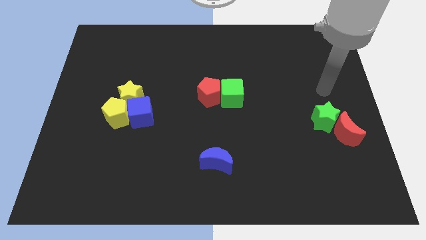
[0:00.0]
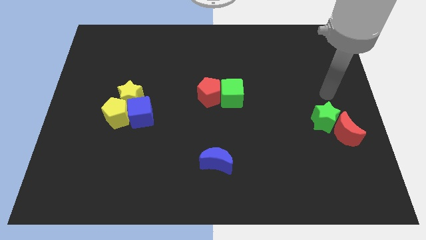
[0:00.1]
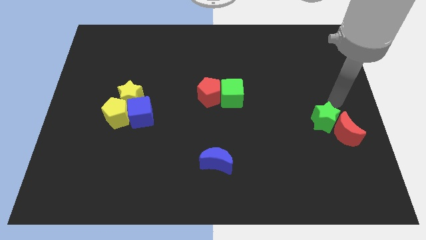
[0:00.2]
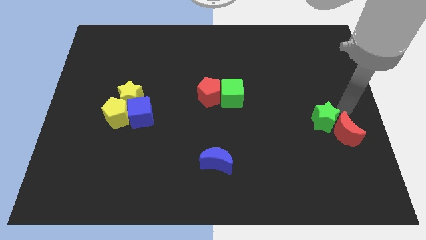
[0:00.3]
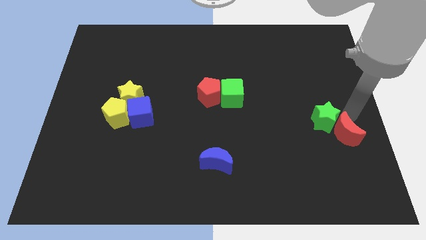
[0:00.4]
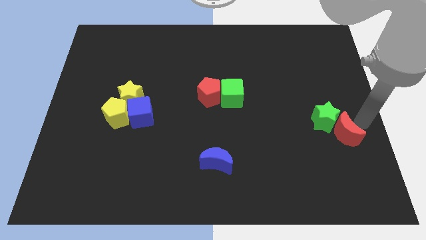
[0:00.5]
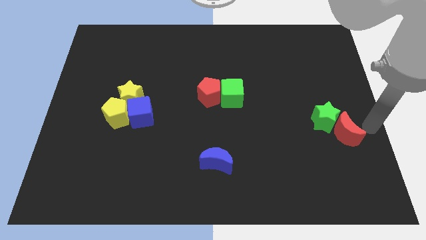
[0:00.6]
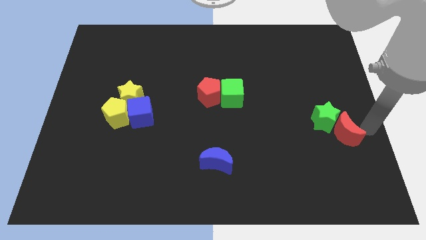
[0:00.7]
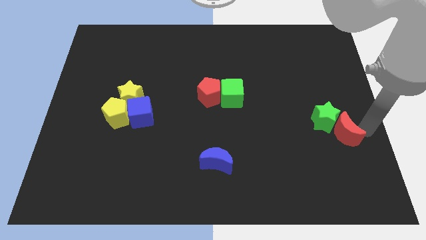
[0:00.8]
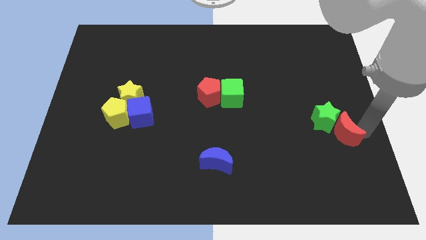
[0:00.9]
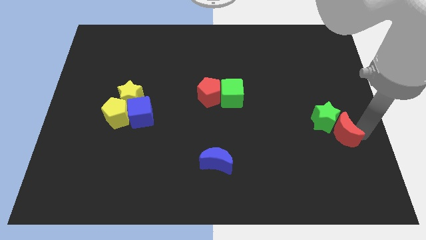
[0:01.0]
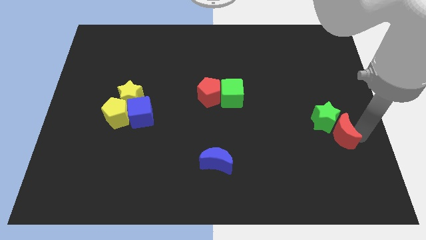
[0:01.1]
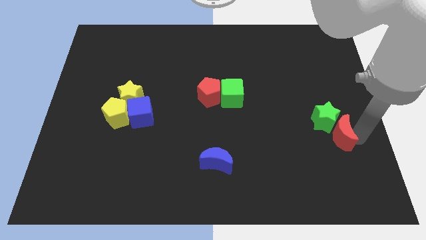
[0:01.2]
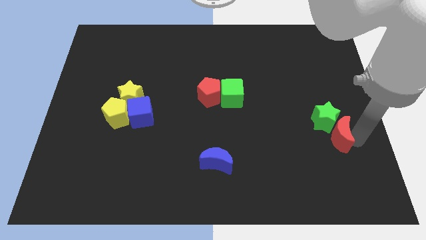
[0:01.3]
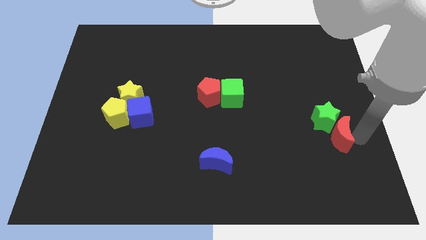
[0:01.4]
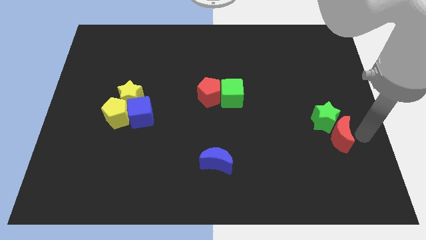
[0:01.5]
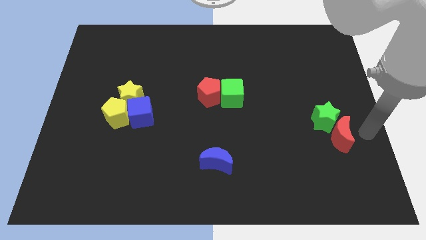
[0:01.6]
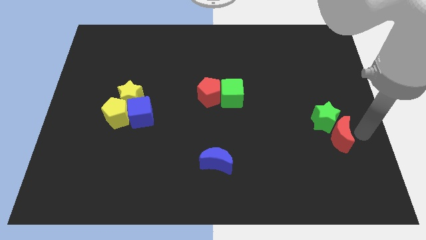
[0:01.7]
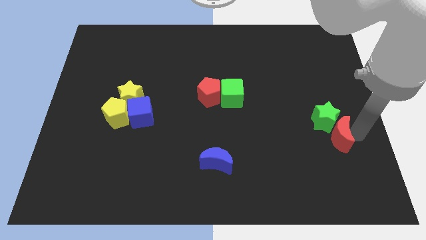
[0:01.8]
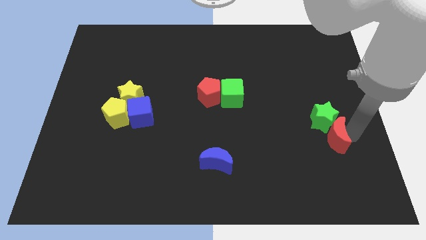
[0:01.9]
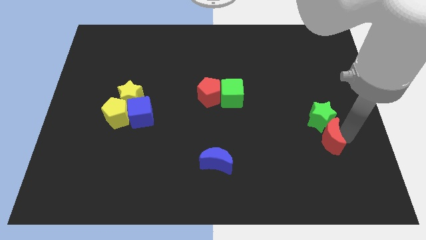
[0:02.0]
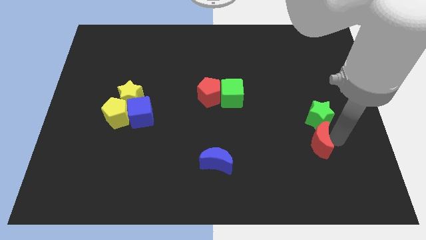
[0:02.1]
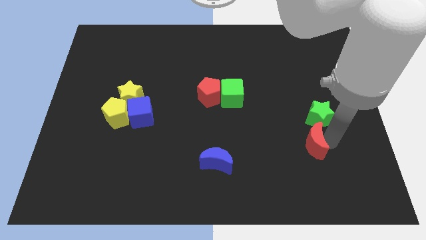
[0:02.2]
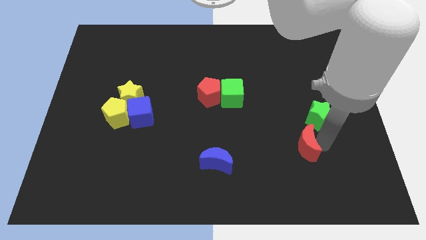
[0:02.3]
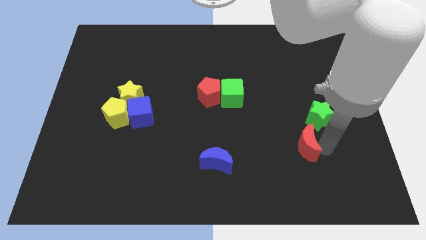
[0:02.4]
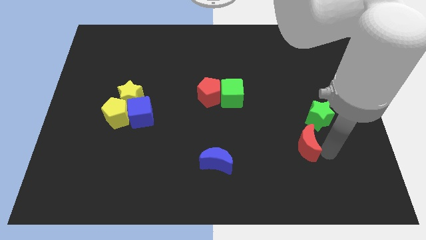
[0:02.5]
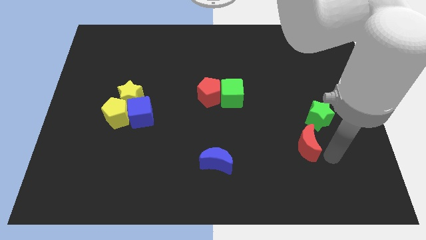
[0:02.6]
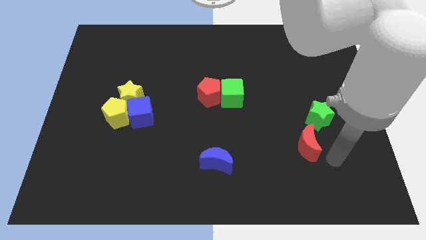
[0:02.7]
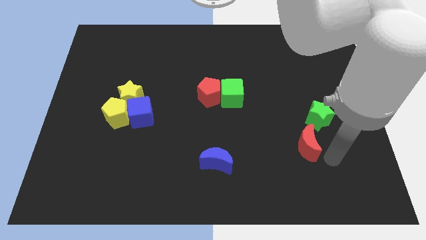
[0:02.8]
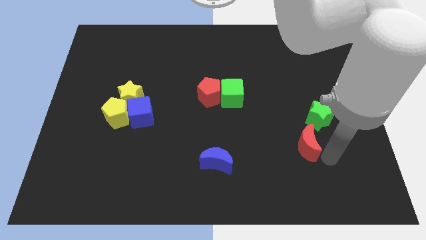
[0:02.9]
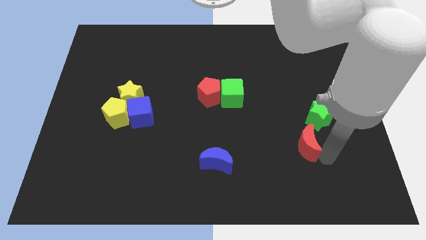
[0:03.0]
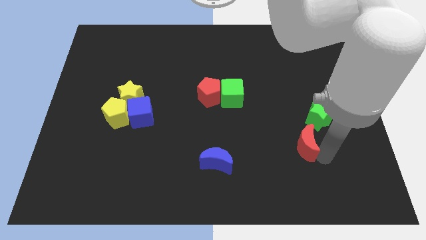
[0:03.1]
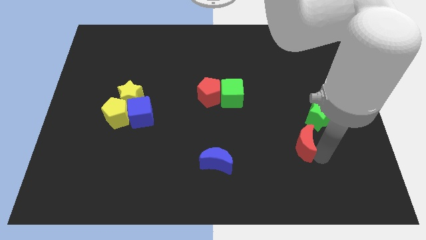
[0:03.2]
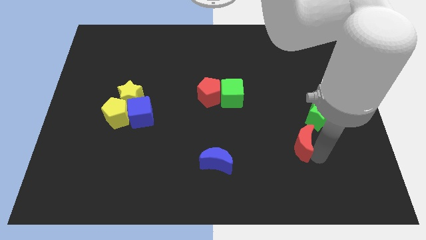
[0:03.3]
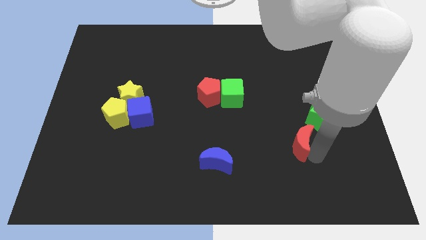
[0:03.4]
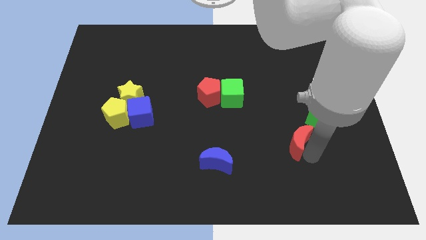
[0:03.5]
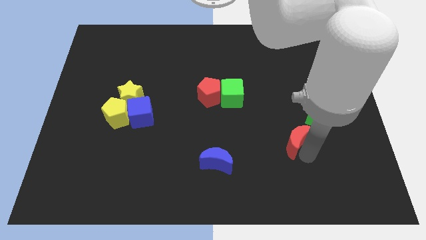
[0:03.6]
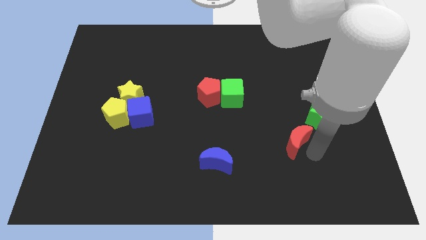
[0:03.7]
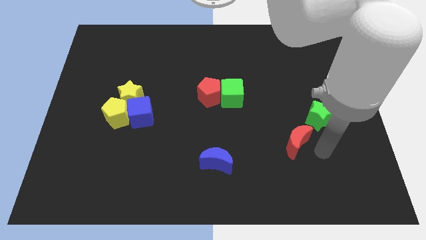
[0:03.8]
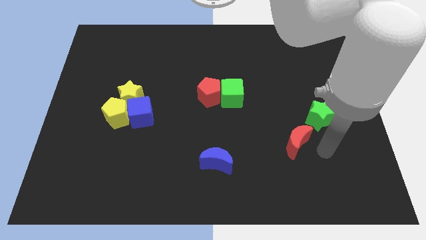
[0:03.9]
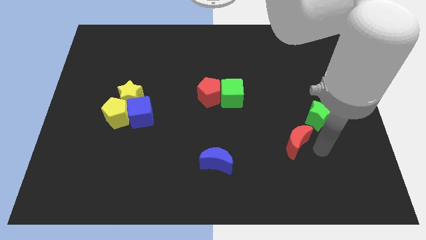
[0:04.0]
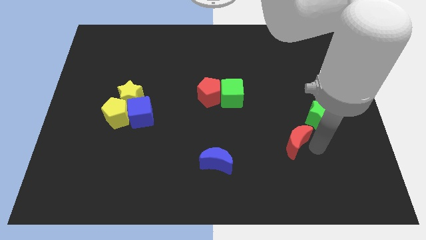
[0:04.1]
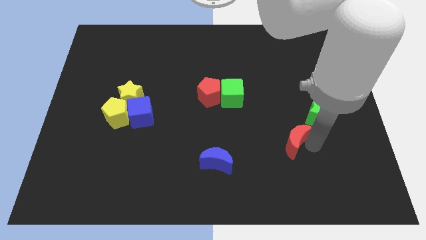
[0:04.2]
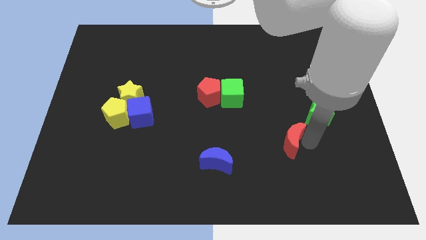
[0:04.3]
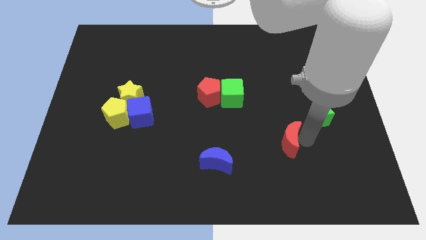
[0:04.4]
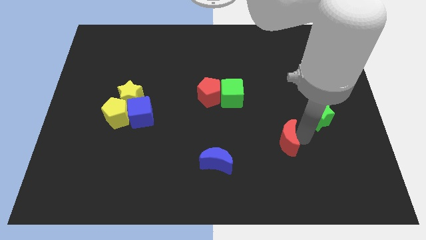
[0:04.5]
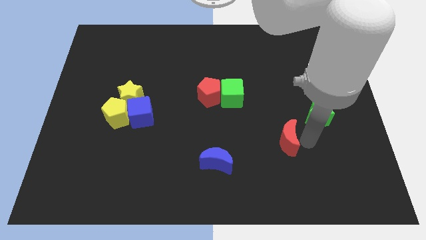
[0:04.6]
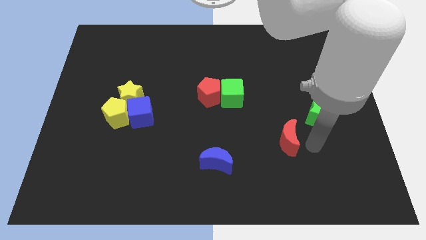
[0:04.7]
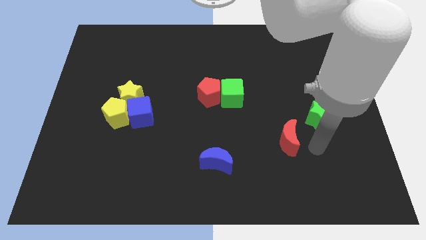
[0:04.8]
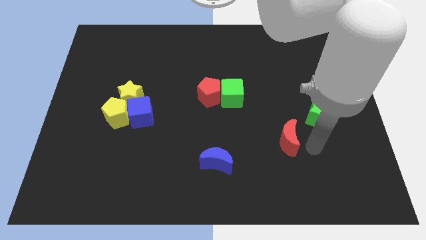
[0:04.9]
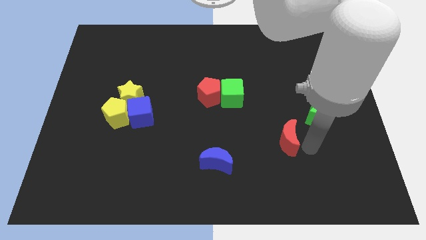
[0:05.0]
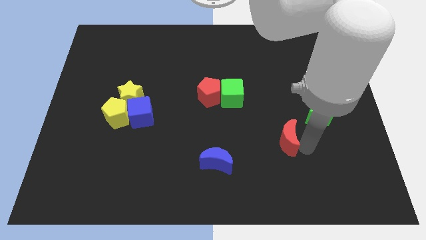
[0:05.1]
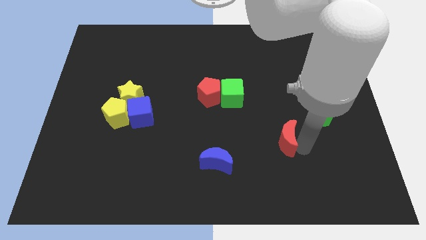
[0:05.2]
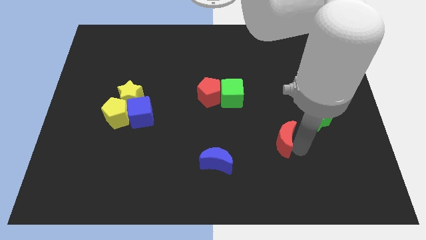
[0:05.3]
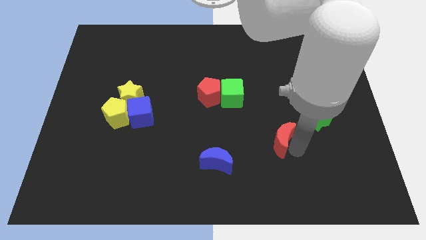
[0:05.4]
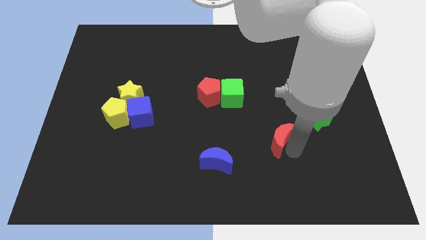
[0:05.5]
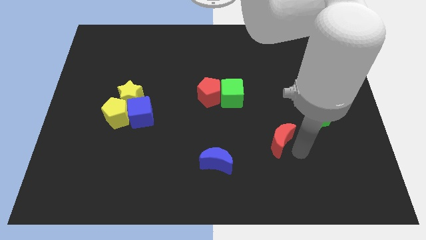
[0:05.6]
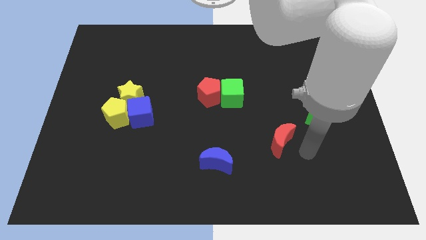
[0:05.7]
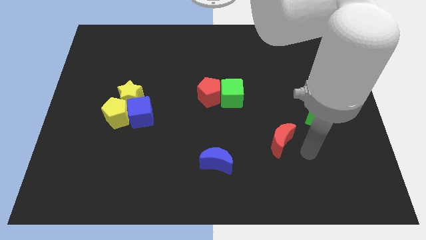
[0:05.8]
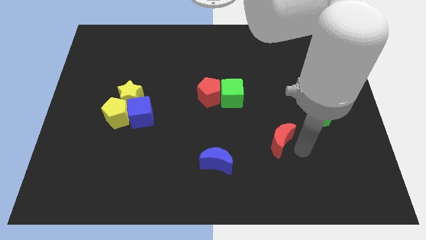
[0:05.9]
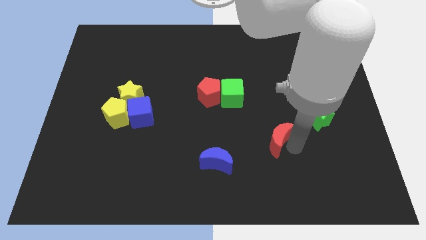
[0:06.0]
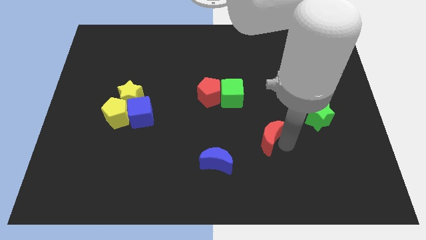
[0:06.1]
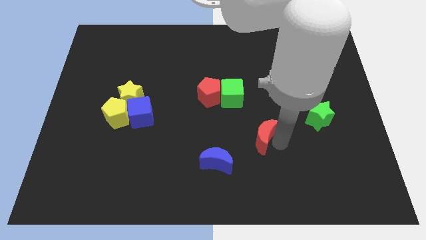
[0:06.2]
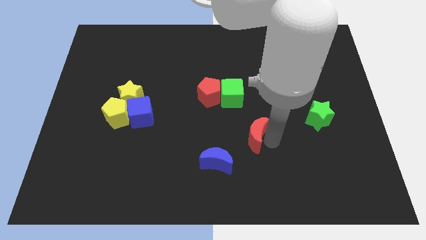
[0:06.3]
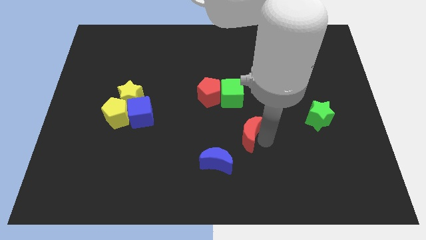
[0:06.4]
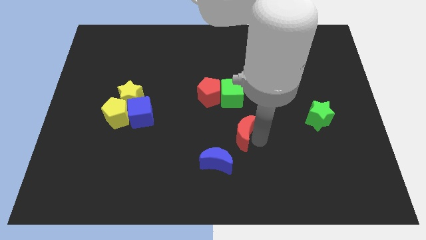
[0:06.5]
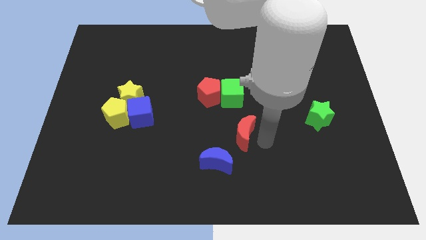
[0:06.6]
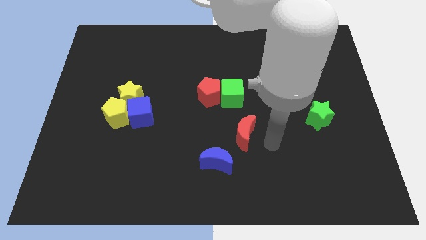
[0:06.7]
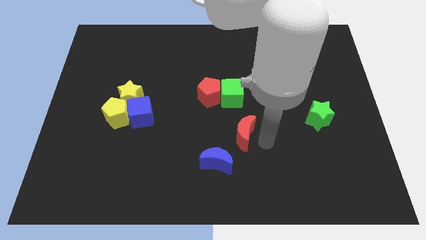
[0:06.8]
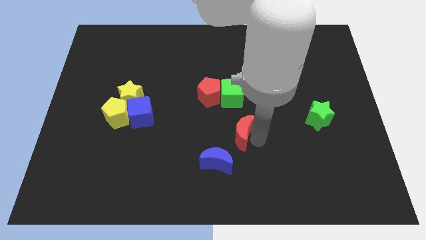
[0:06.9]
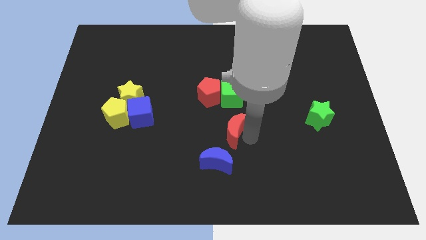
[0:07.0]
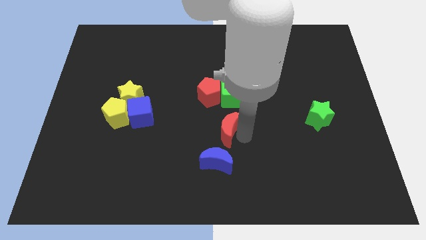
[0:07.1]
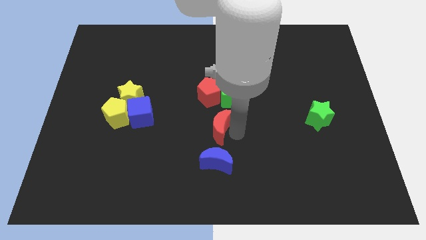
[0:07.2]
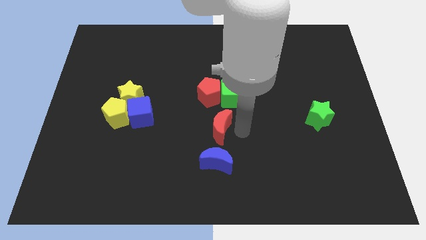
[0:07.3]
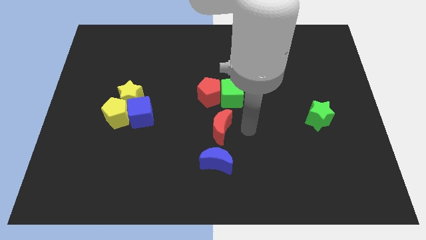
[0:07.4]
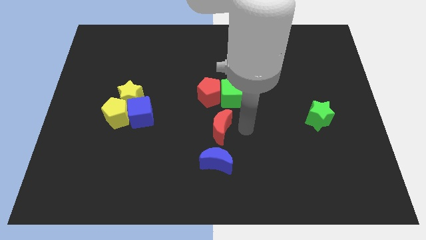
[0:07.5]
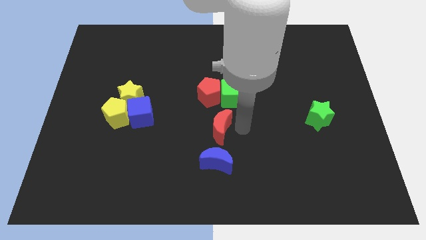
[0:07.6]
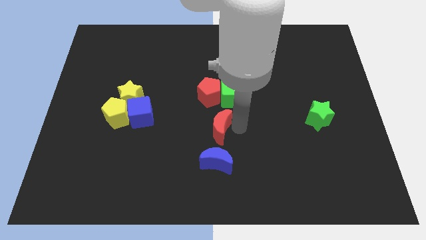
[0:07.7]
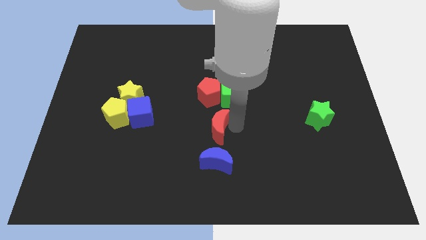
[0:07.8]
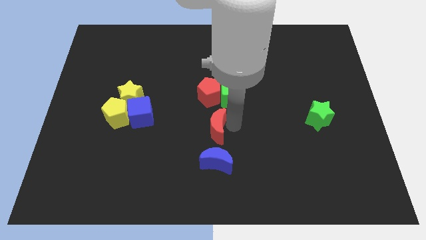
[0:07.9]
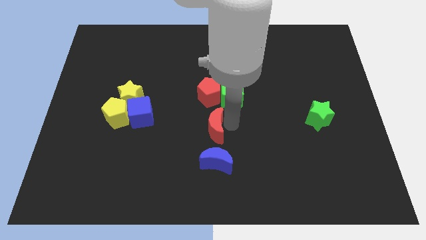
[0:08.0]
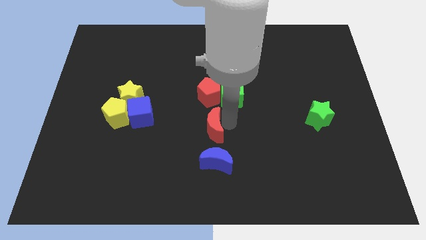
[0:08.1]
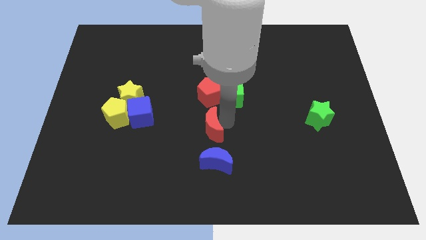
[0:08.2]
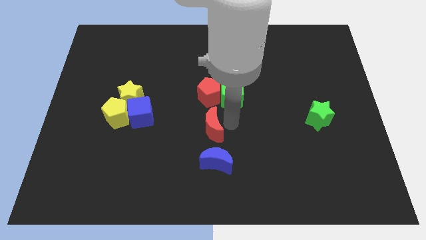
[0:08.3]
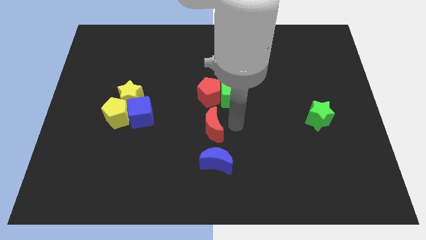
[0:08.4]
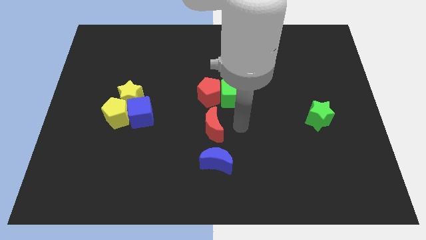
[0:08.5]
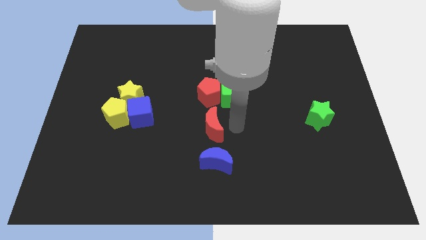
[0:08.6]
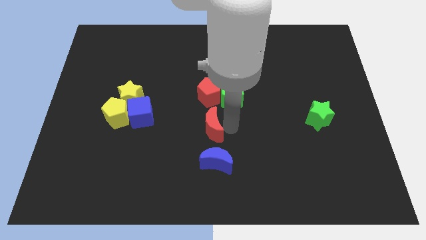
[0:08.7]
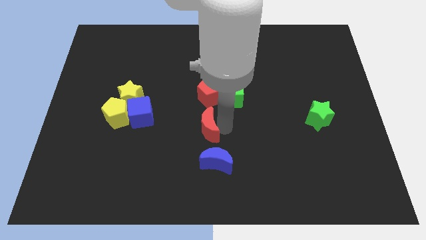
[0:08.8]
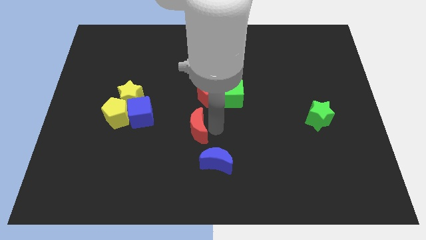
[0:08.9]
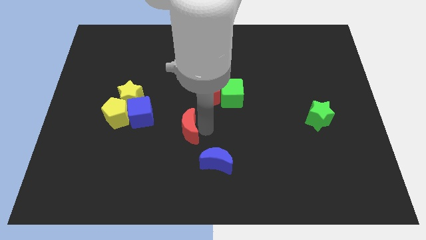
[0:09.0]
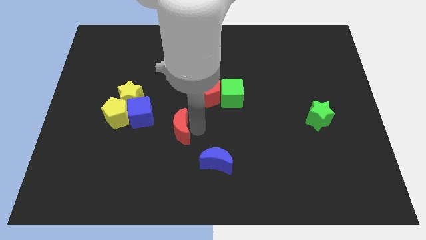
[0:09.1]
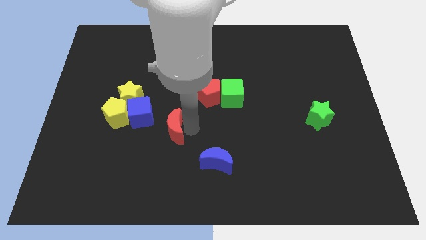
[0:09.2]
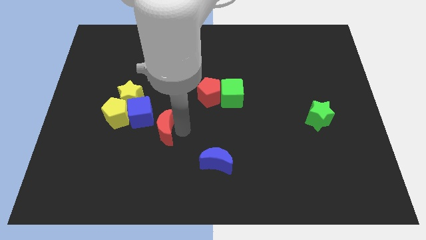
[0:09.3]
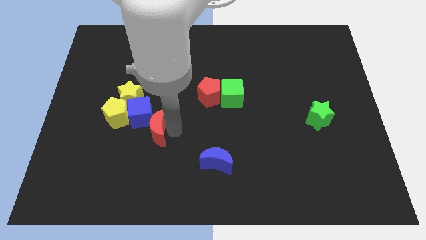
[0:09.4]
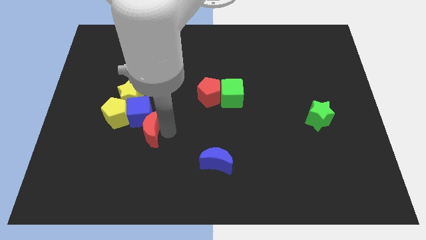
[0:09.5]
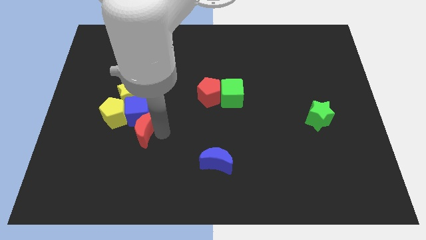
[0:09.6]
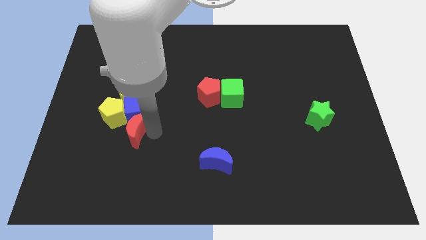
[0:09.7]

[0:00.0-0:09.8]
move the red moon to the bottom left side of the blue cube
